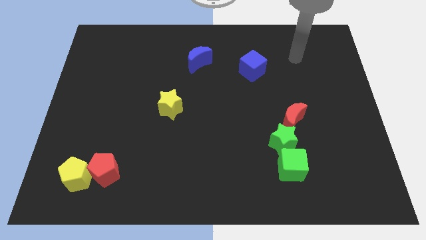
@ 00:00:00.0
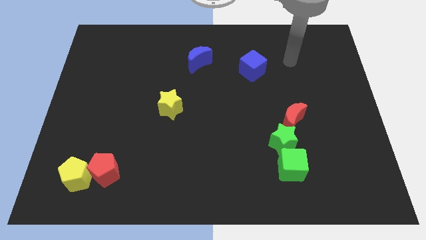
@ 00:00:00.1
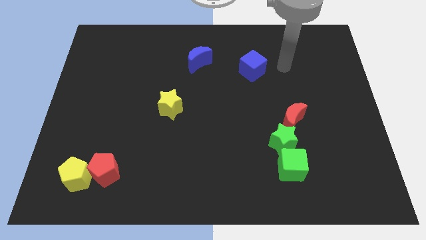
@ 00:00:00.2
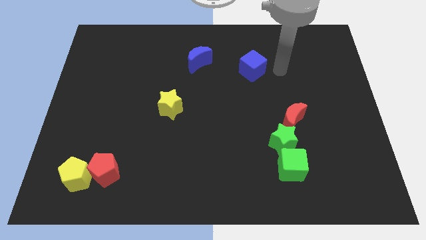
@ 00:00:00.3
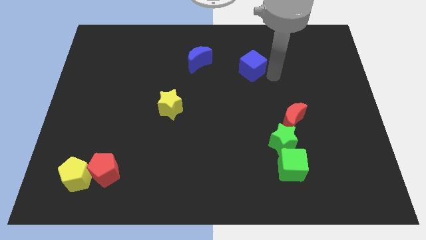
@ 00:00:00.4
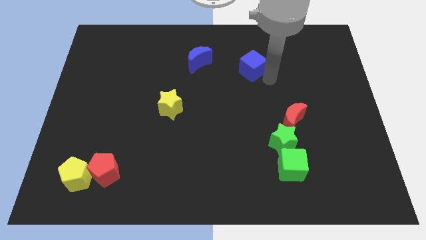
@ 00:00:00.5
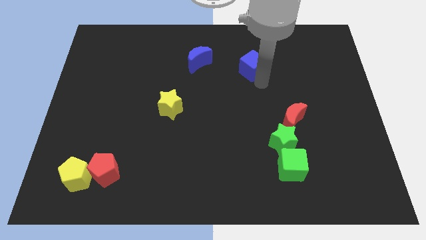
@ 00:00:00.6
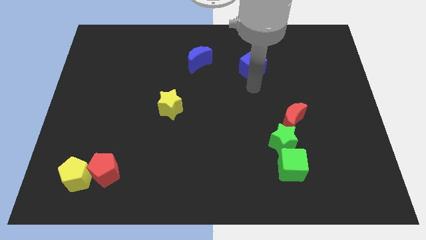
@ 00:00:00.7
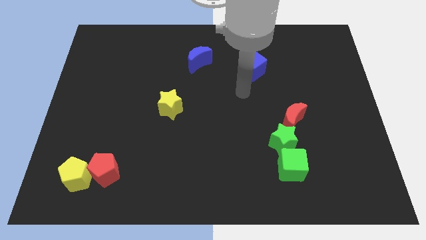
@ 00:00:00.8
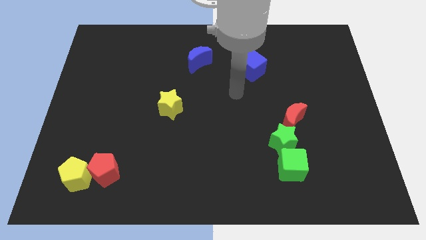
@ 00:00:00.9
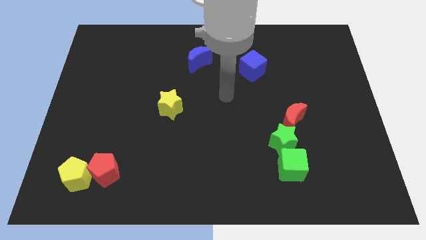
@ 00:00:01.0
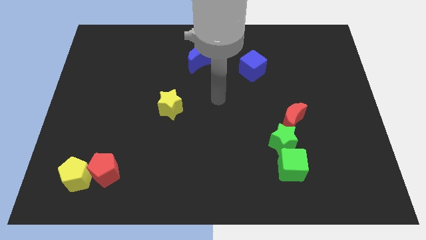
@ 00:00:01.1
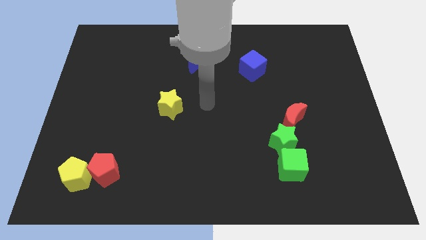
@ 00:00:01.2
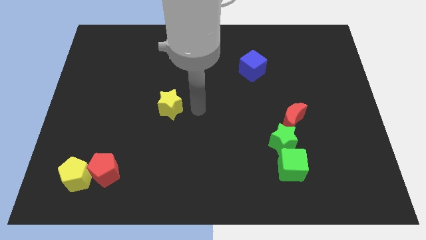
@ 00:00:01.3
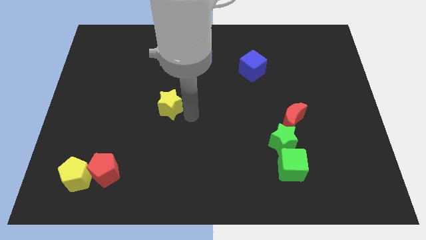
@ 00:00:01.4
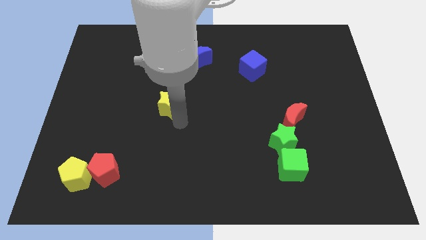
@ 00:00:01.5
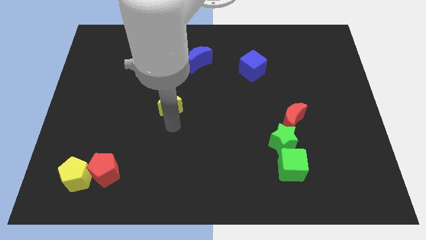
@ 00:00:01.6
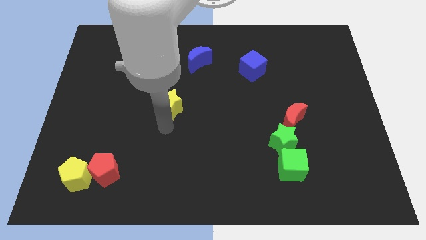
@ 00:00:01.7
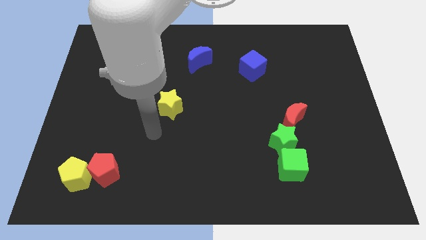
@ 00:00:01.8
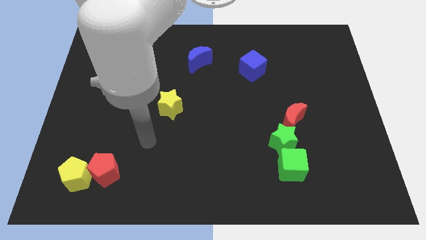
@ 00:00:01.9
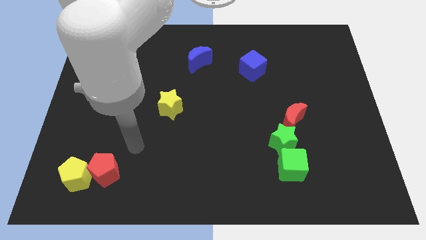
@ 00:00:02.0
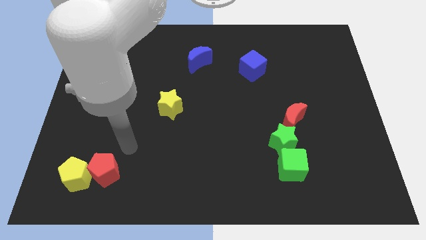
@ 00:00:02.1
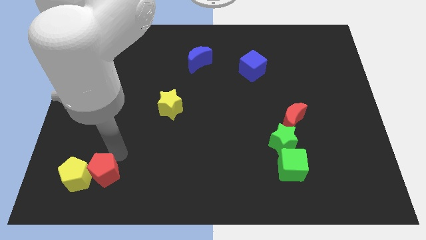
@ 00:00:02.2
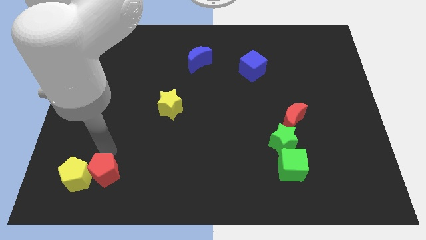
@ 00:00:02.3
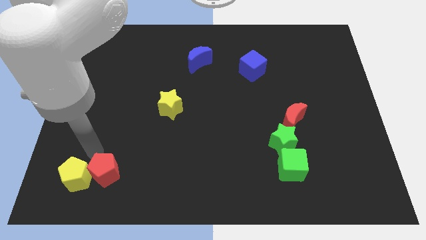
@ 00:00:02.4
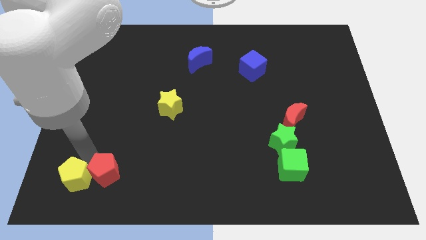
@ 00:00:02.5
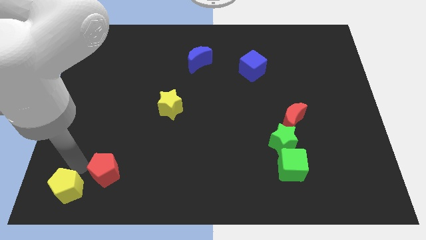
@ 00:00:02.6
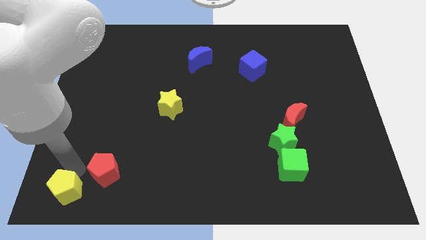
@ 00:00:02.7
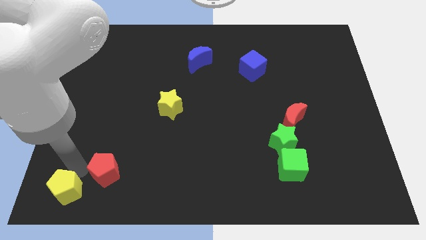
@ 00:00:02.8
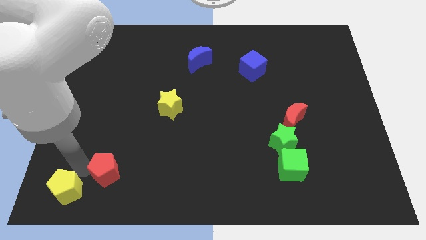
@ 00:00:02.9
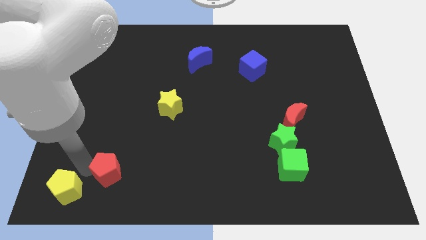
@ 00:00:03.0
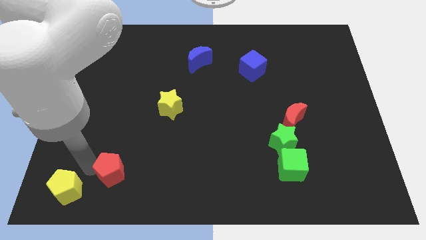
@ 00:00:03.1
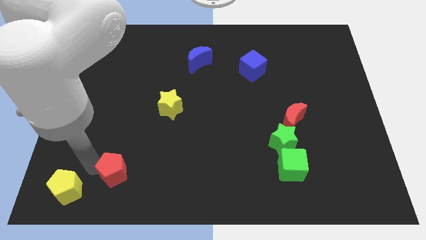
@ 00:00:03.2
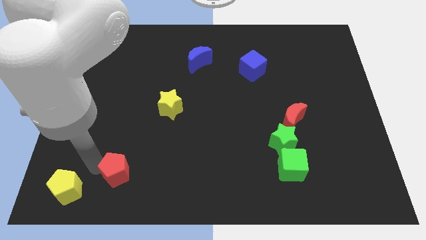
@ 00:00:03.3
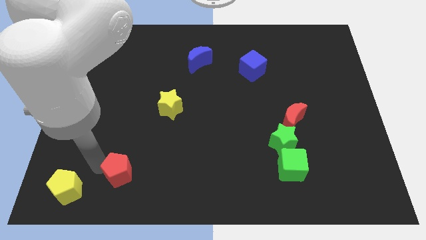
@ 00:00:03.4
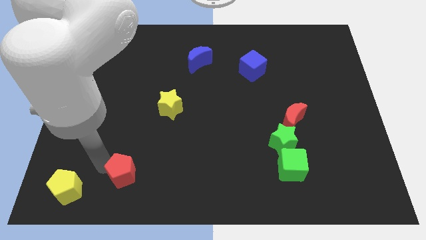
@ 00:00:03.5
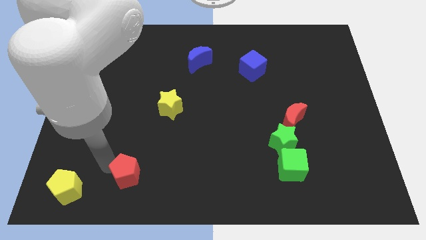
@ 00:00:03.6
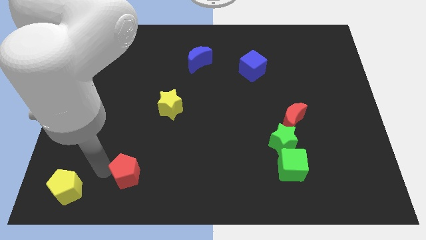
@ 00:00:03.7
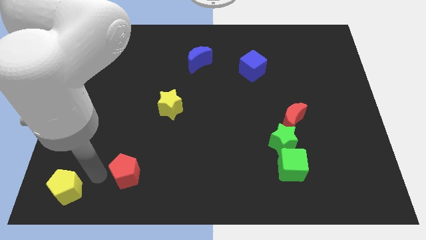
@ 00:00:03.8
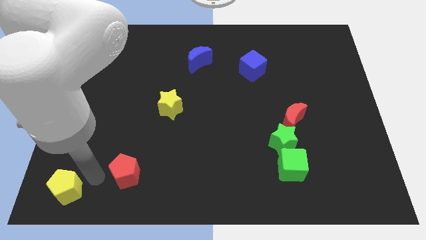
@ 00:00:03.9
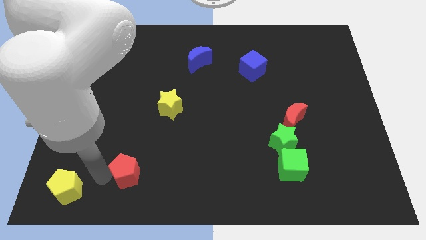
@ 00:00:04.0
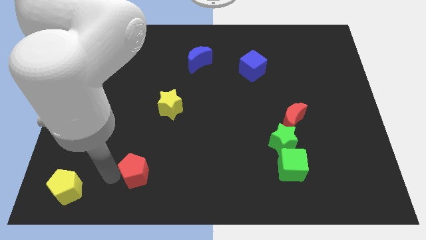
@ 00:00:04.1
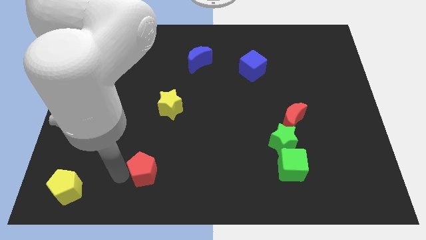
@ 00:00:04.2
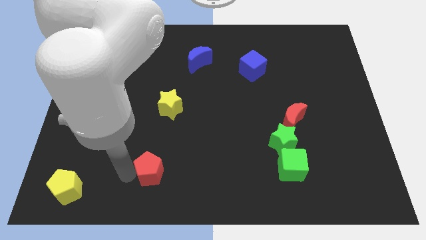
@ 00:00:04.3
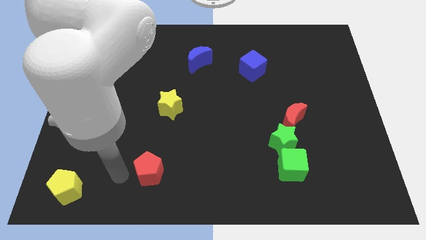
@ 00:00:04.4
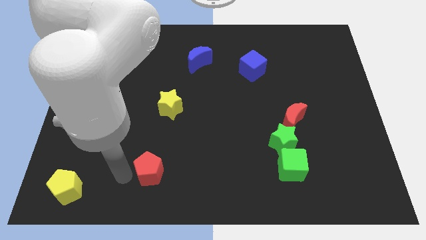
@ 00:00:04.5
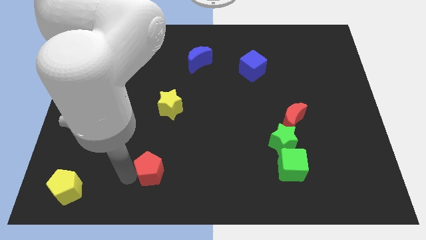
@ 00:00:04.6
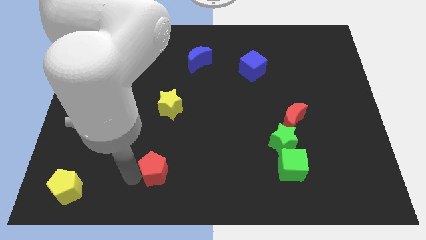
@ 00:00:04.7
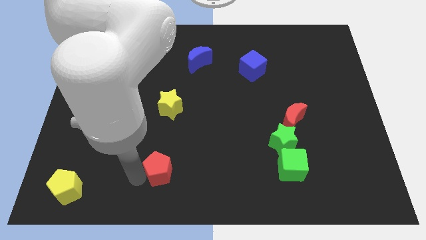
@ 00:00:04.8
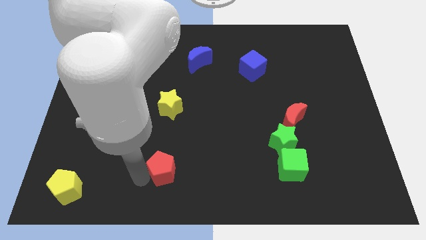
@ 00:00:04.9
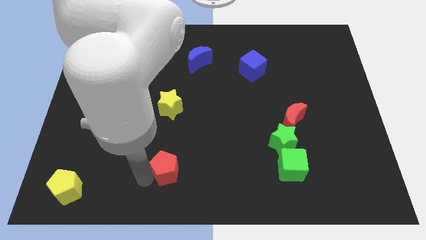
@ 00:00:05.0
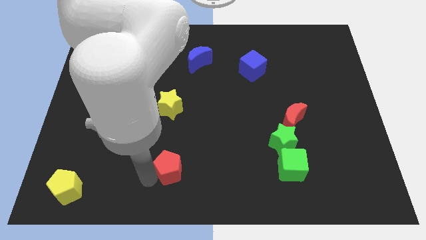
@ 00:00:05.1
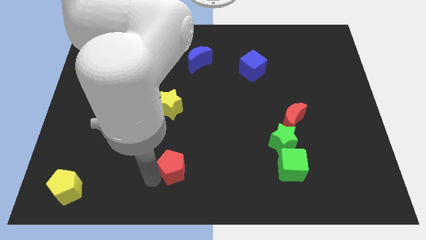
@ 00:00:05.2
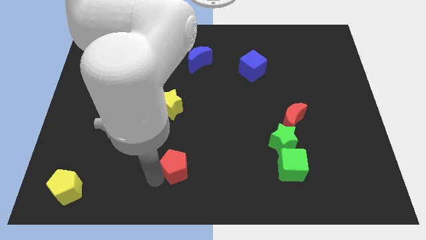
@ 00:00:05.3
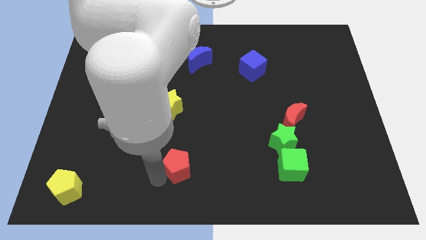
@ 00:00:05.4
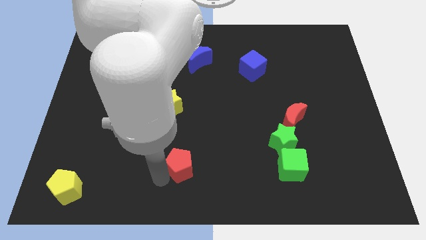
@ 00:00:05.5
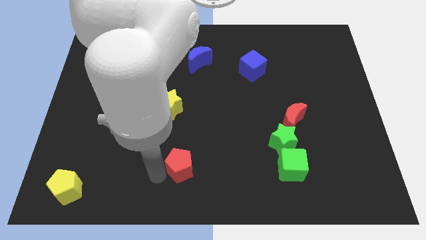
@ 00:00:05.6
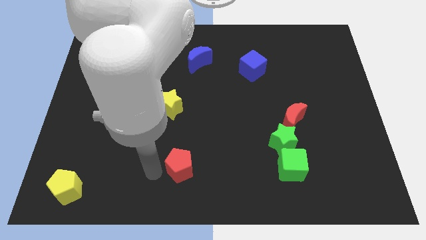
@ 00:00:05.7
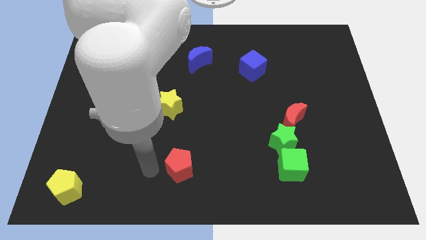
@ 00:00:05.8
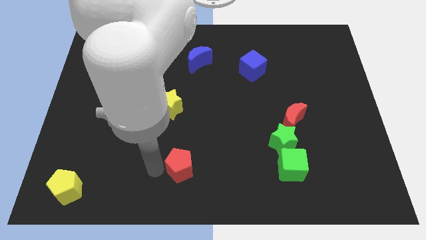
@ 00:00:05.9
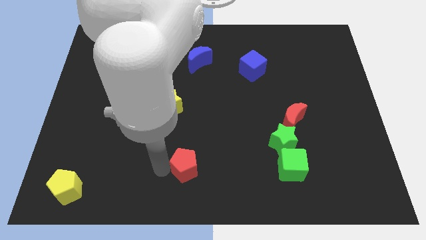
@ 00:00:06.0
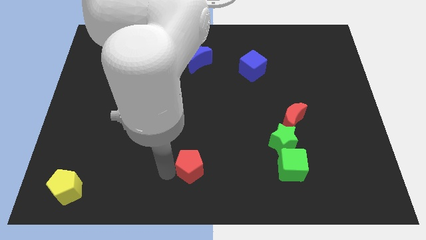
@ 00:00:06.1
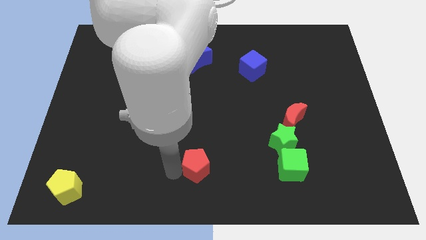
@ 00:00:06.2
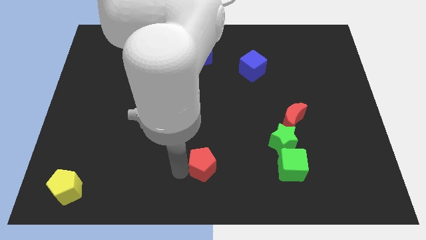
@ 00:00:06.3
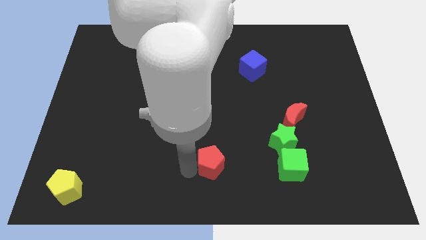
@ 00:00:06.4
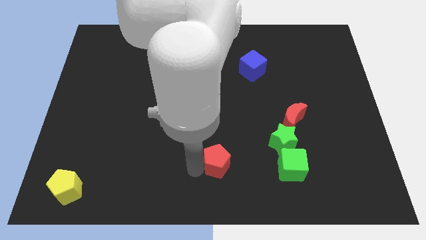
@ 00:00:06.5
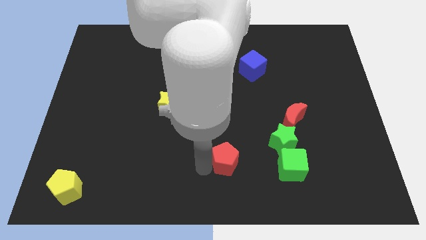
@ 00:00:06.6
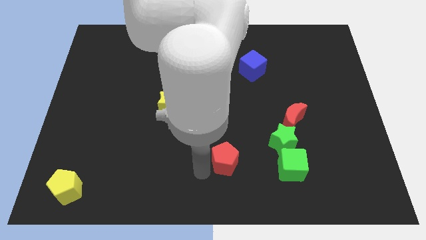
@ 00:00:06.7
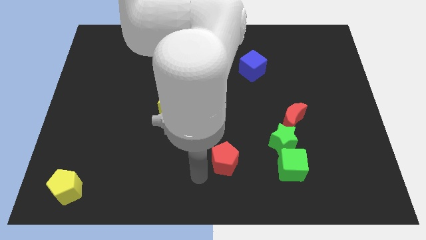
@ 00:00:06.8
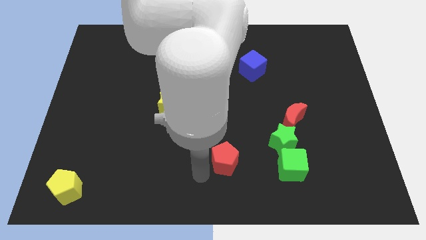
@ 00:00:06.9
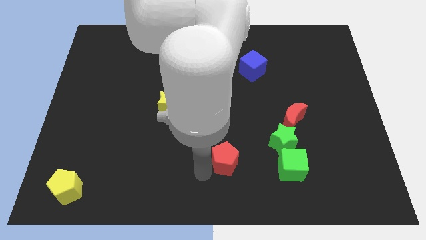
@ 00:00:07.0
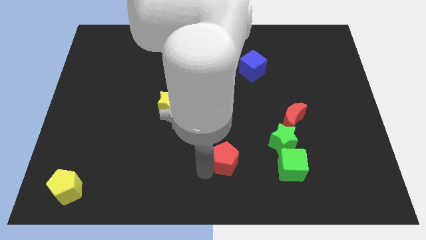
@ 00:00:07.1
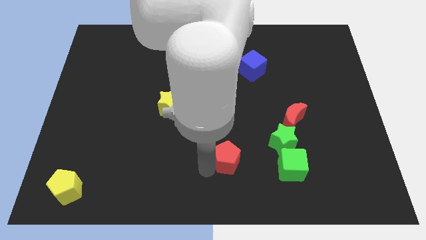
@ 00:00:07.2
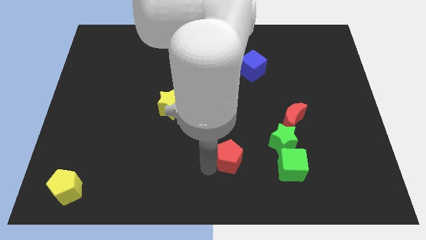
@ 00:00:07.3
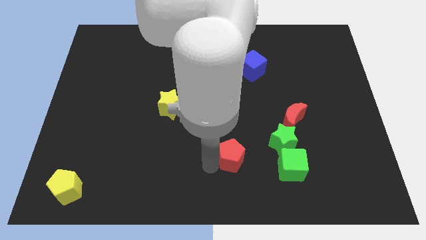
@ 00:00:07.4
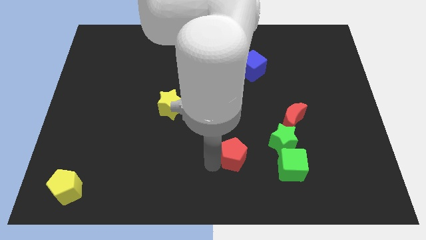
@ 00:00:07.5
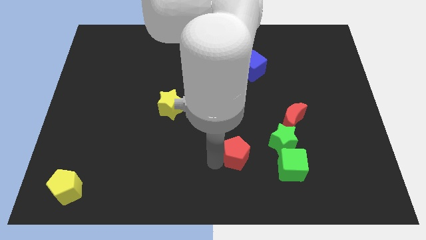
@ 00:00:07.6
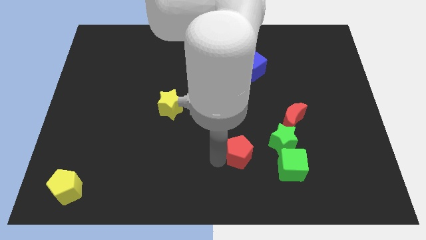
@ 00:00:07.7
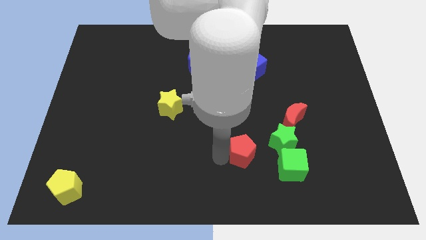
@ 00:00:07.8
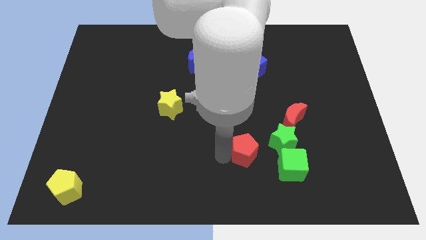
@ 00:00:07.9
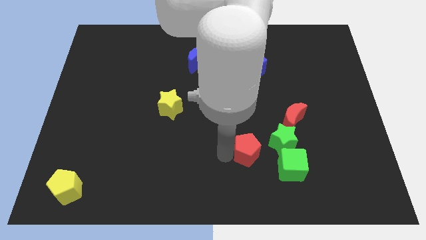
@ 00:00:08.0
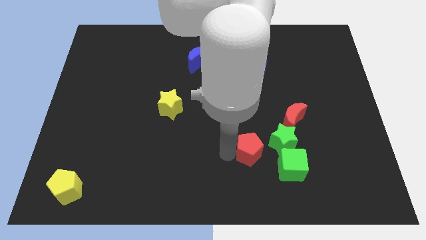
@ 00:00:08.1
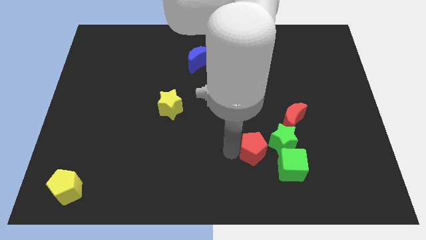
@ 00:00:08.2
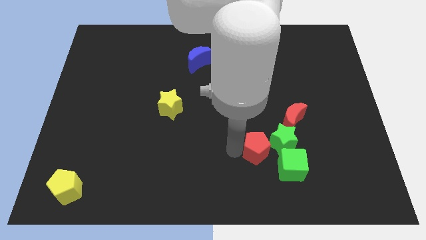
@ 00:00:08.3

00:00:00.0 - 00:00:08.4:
put the red pentagon next to the green star
